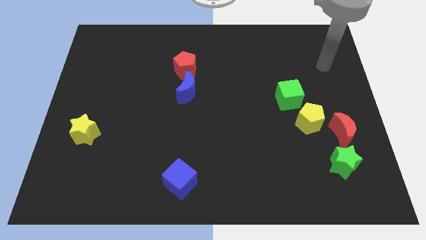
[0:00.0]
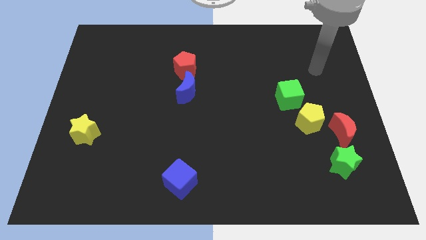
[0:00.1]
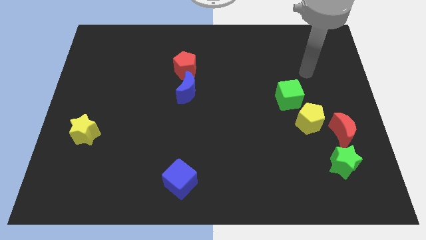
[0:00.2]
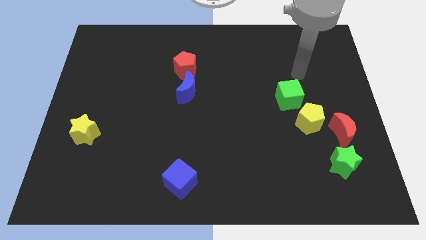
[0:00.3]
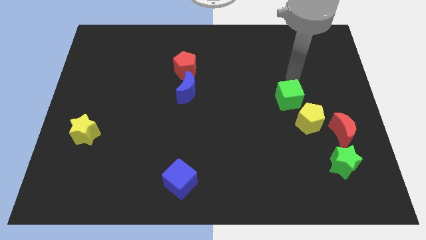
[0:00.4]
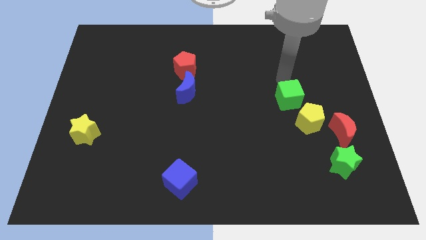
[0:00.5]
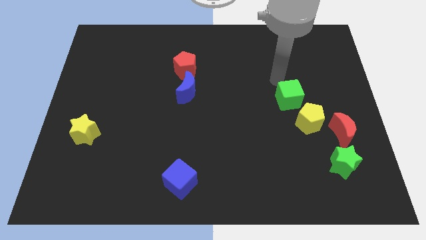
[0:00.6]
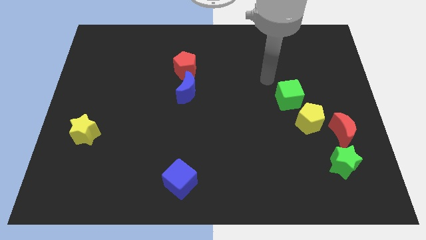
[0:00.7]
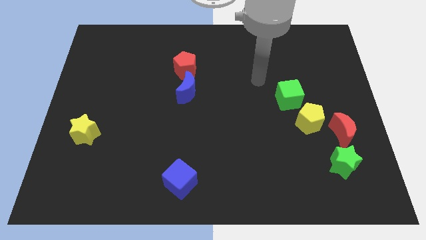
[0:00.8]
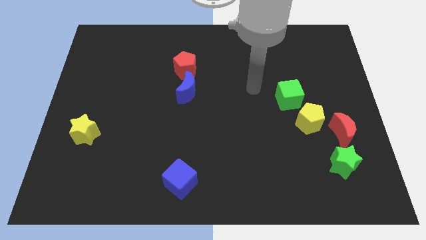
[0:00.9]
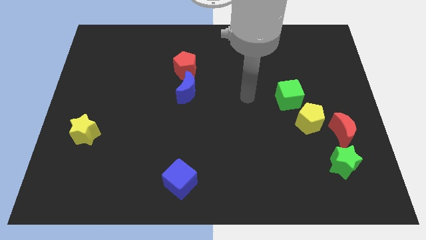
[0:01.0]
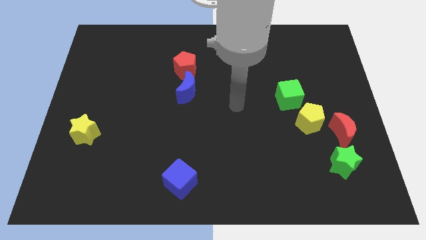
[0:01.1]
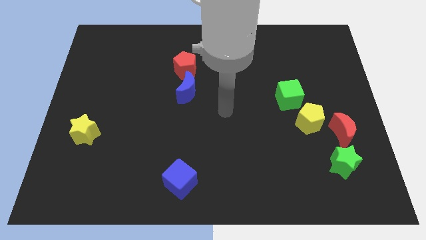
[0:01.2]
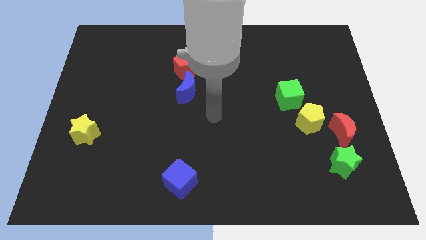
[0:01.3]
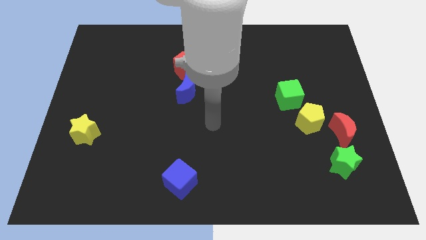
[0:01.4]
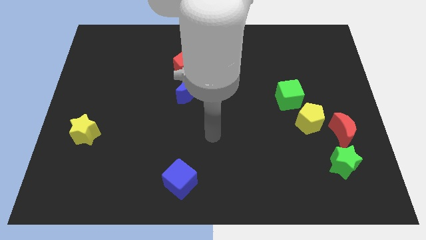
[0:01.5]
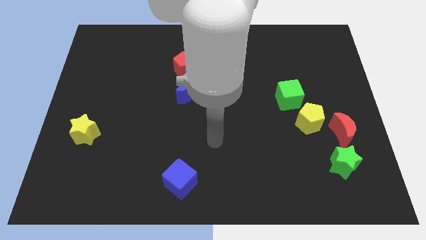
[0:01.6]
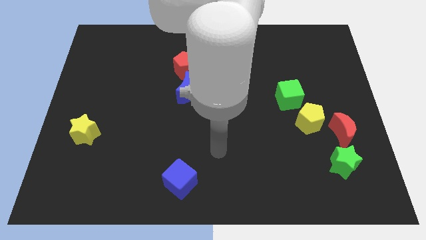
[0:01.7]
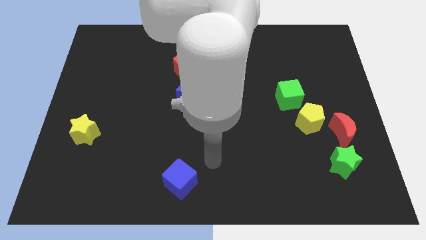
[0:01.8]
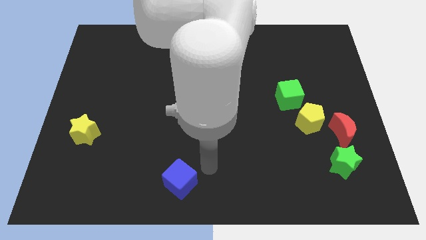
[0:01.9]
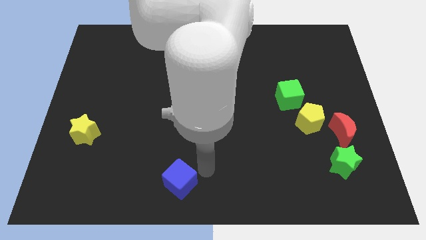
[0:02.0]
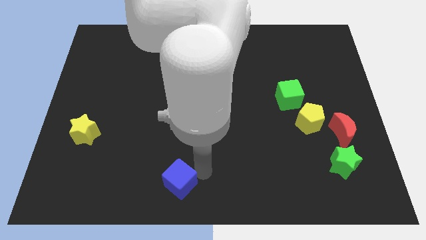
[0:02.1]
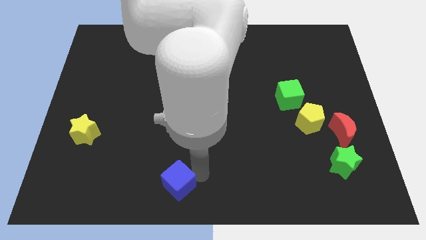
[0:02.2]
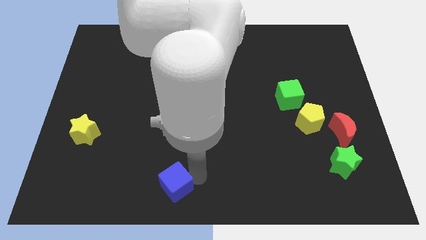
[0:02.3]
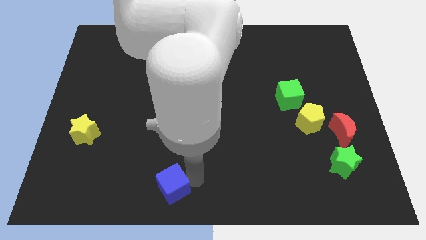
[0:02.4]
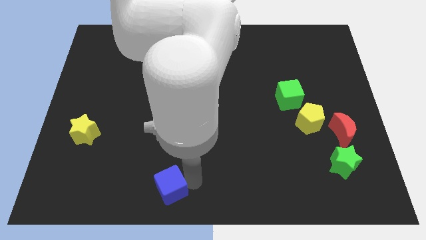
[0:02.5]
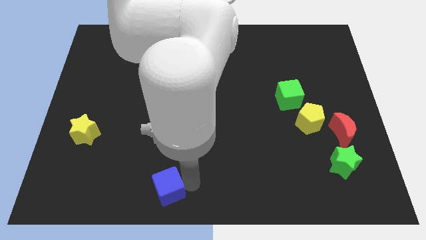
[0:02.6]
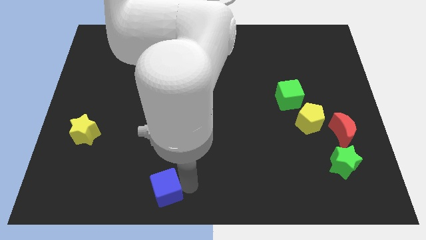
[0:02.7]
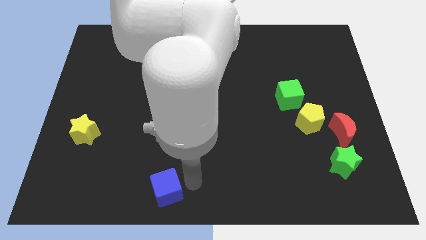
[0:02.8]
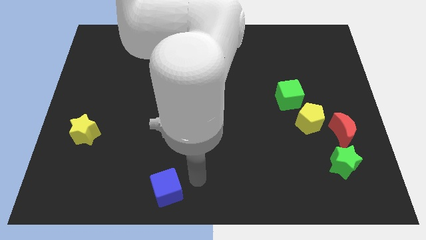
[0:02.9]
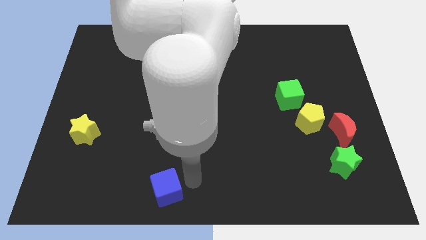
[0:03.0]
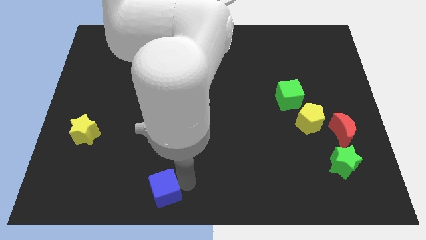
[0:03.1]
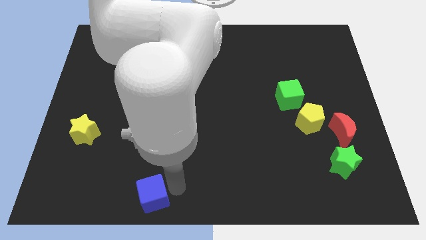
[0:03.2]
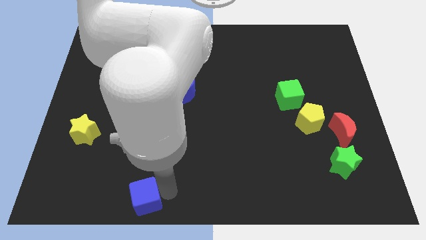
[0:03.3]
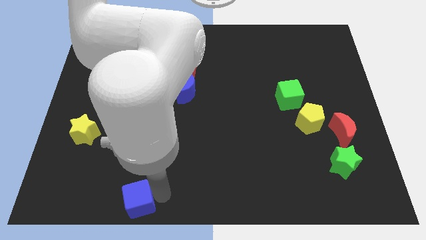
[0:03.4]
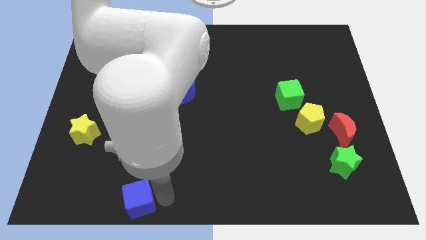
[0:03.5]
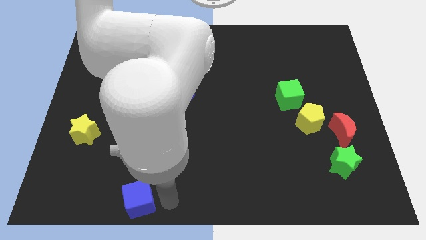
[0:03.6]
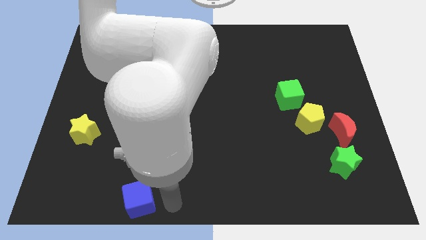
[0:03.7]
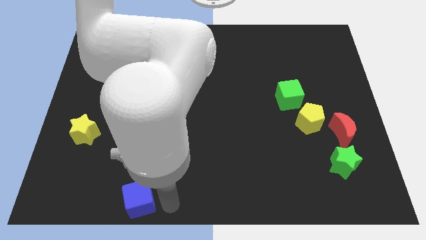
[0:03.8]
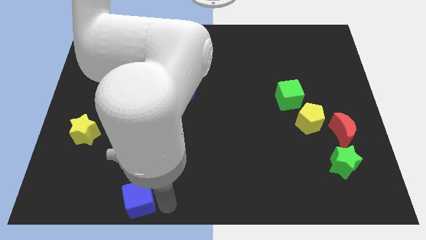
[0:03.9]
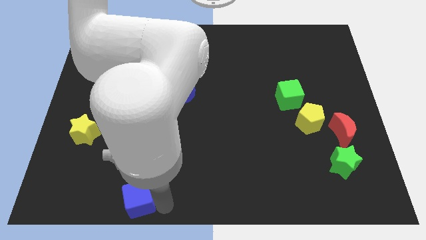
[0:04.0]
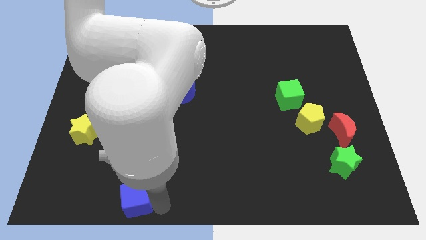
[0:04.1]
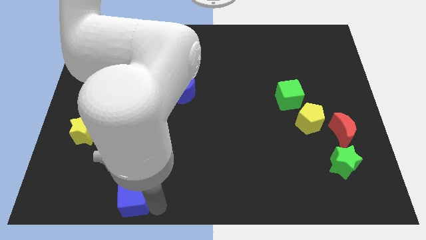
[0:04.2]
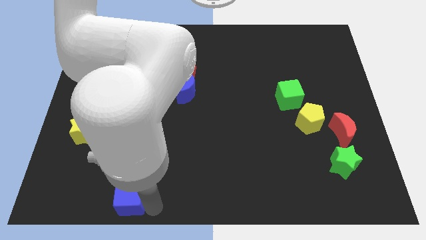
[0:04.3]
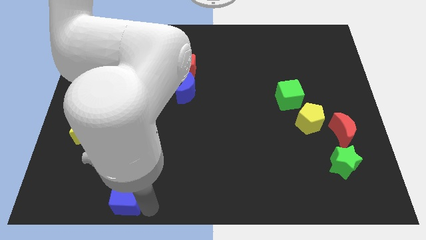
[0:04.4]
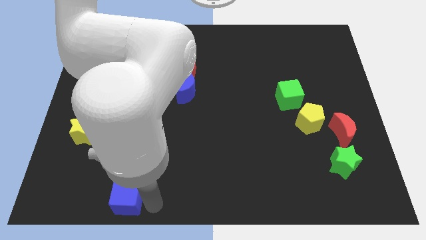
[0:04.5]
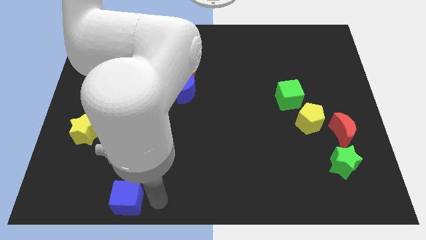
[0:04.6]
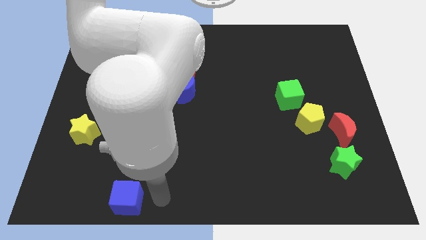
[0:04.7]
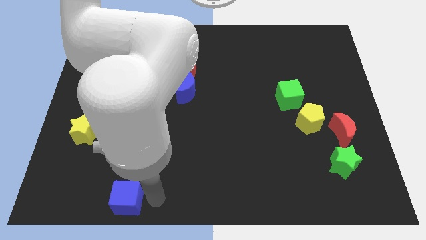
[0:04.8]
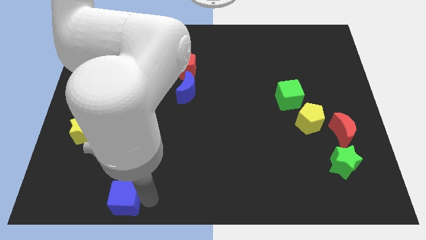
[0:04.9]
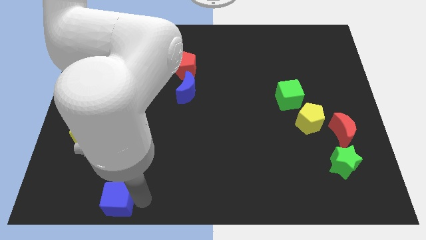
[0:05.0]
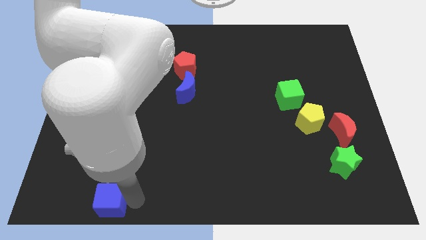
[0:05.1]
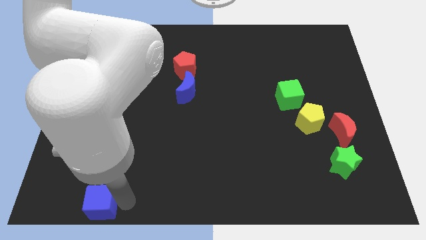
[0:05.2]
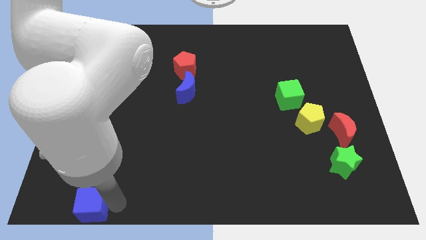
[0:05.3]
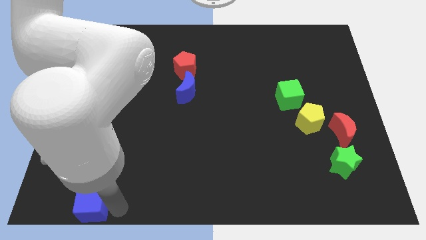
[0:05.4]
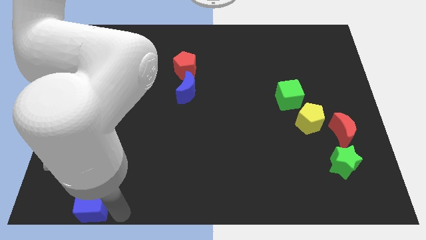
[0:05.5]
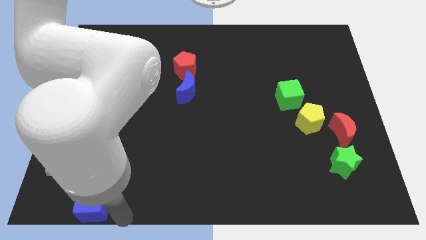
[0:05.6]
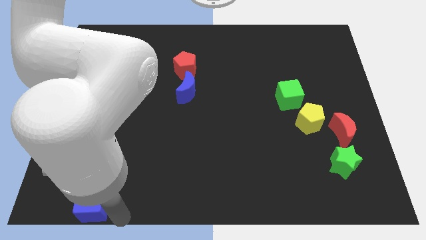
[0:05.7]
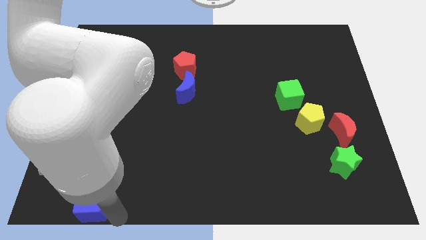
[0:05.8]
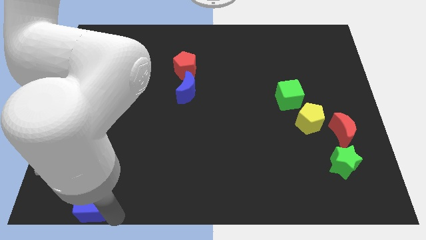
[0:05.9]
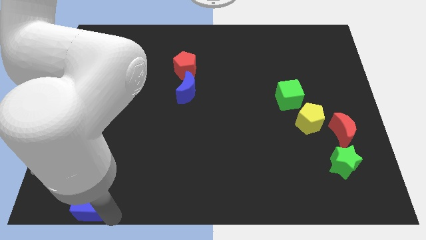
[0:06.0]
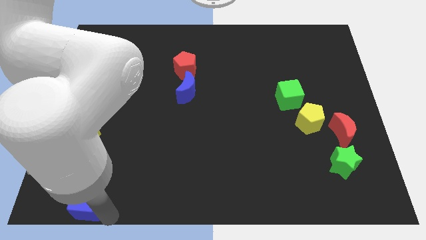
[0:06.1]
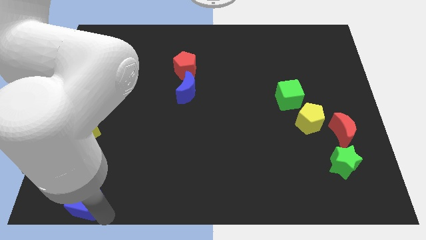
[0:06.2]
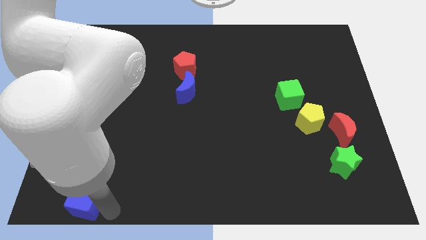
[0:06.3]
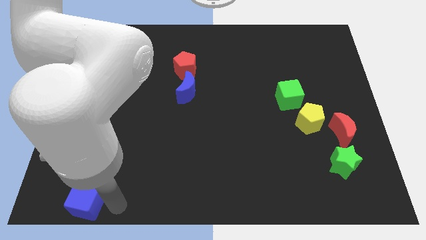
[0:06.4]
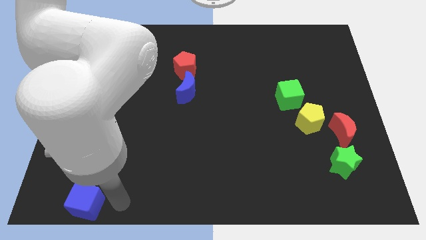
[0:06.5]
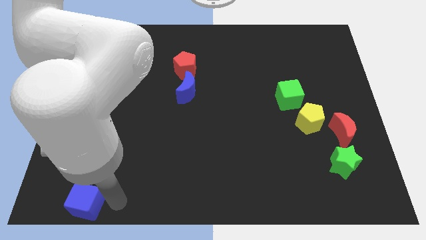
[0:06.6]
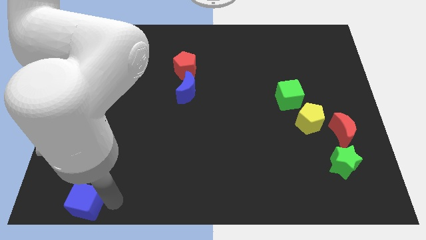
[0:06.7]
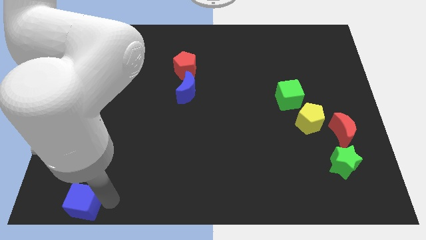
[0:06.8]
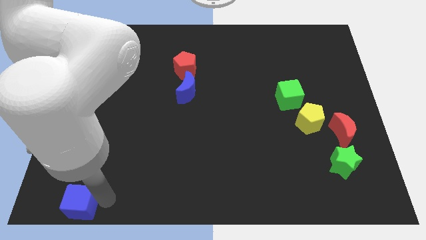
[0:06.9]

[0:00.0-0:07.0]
push the blue cube to the lower left corner
